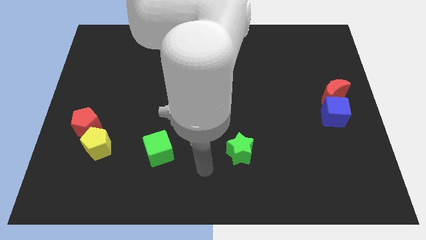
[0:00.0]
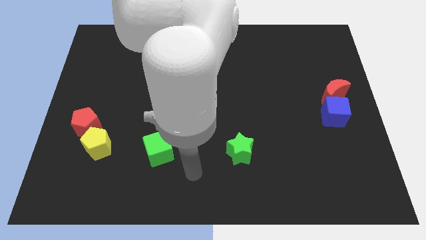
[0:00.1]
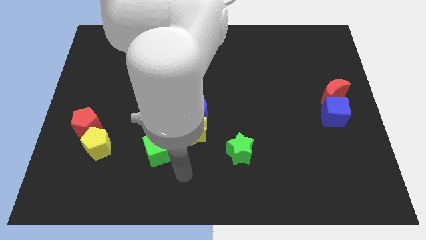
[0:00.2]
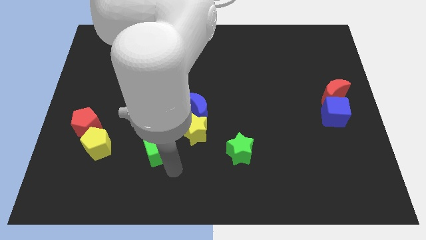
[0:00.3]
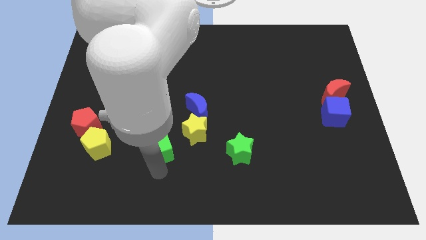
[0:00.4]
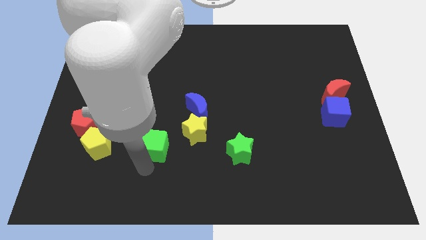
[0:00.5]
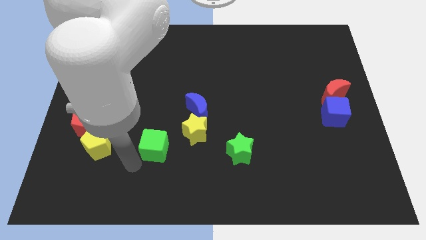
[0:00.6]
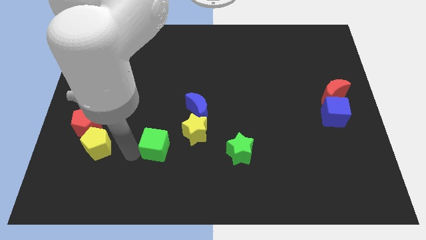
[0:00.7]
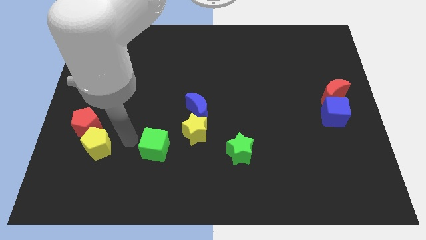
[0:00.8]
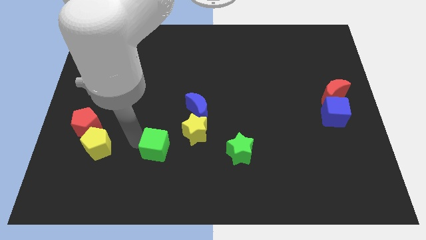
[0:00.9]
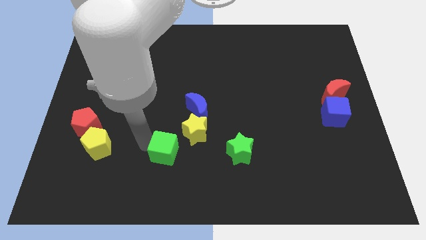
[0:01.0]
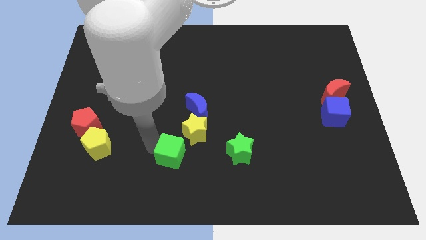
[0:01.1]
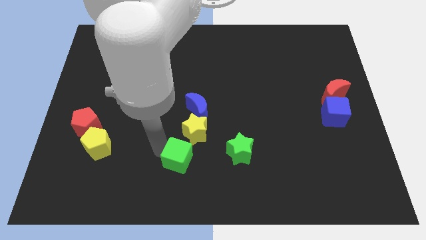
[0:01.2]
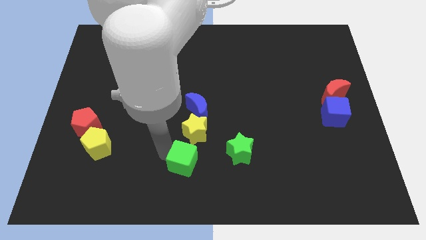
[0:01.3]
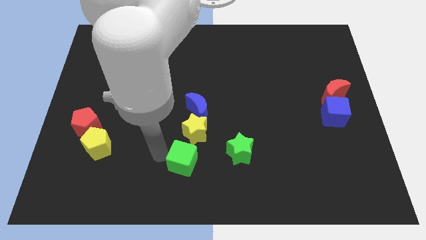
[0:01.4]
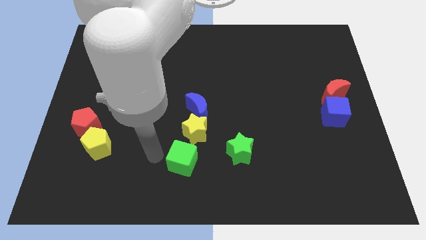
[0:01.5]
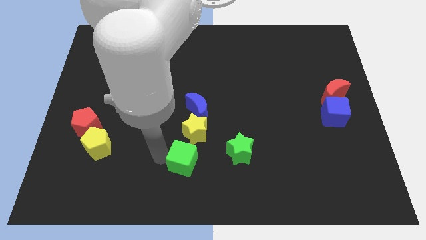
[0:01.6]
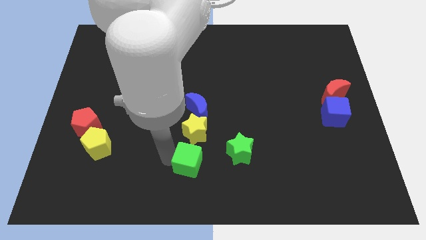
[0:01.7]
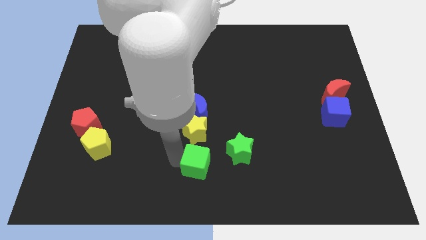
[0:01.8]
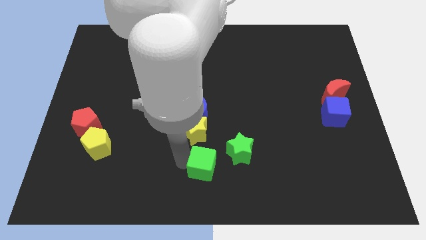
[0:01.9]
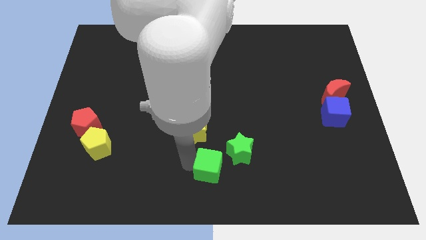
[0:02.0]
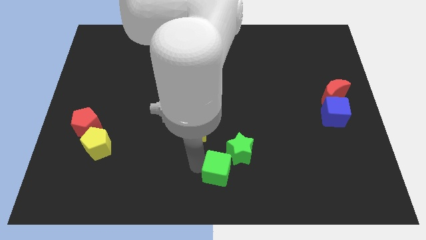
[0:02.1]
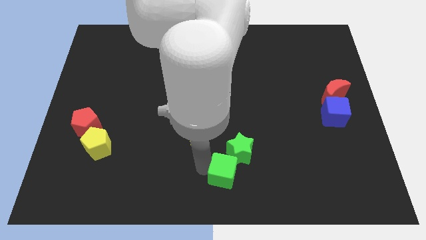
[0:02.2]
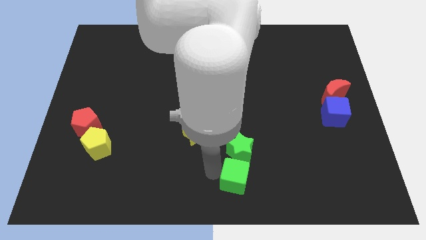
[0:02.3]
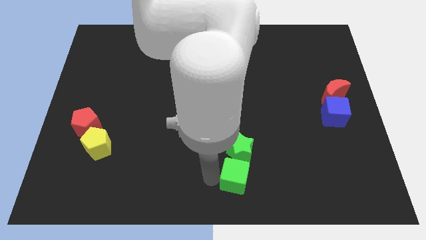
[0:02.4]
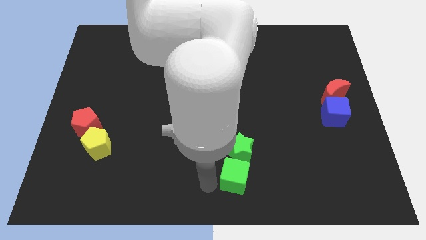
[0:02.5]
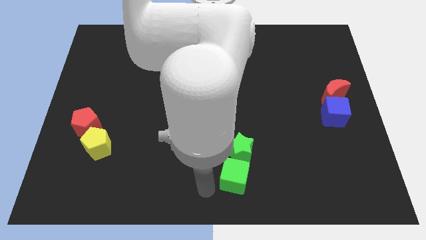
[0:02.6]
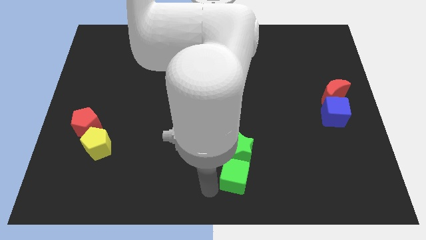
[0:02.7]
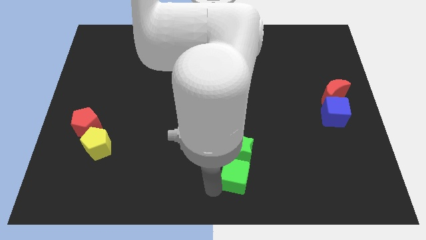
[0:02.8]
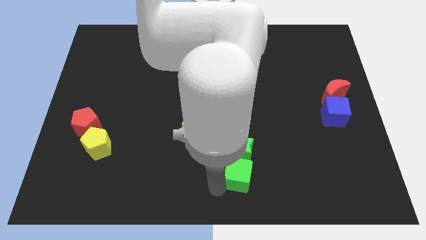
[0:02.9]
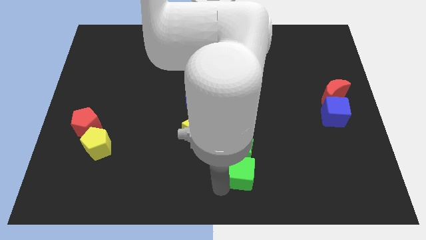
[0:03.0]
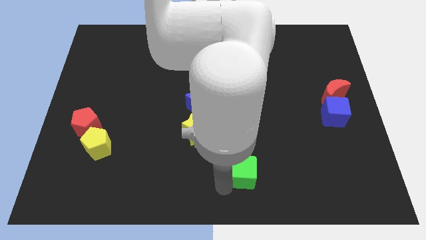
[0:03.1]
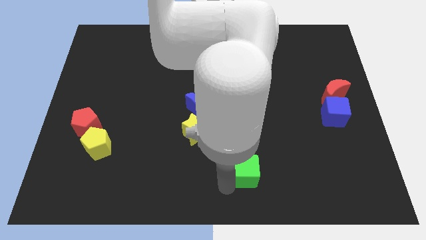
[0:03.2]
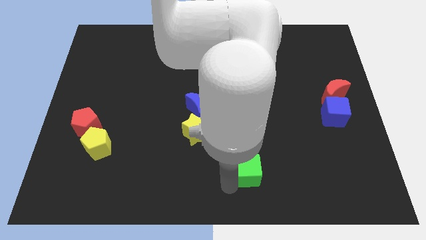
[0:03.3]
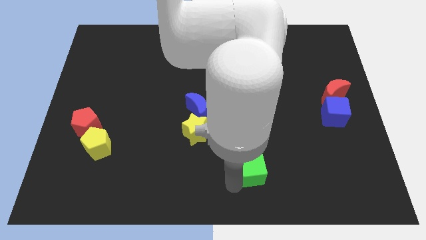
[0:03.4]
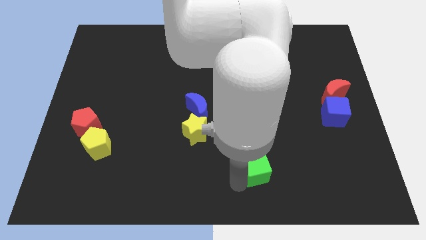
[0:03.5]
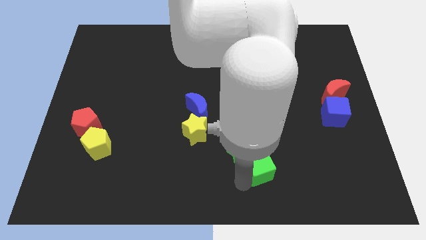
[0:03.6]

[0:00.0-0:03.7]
push the green cube to the right

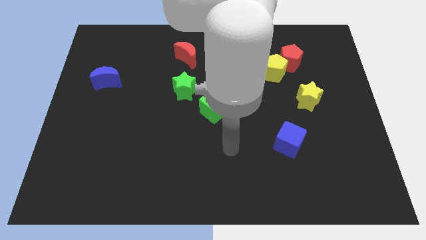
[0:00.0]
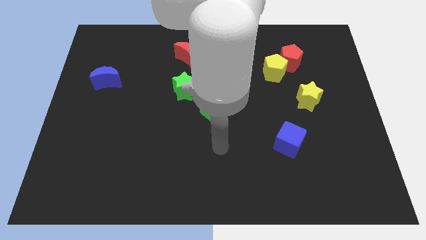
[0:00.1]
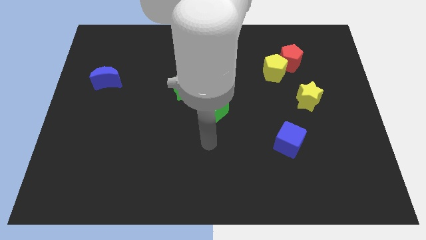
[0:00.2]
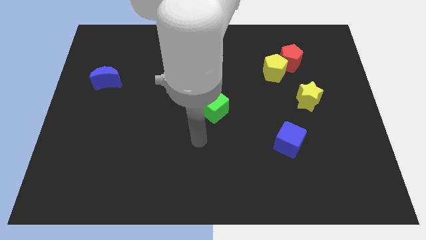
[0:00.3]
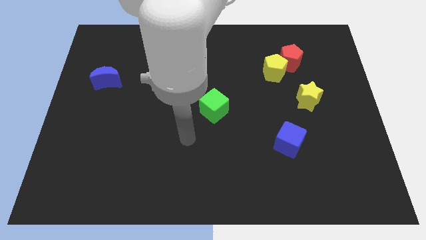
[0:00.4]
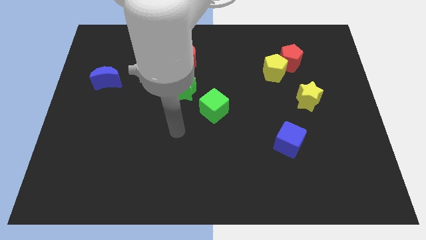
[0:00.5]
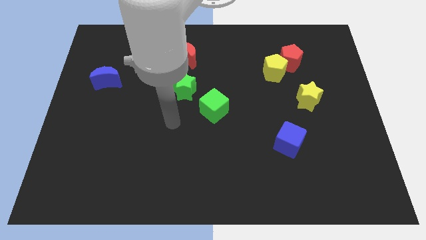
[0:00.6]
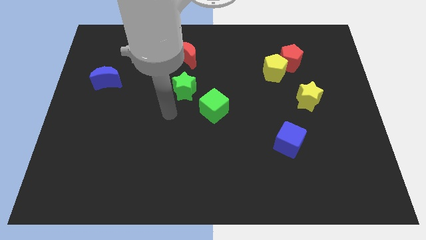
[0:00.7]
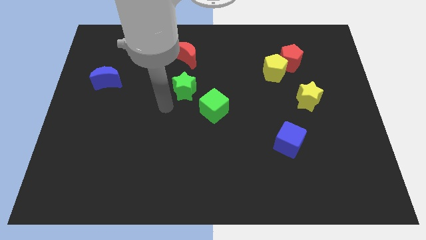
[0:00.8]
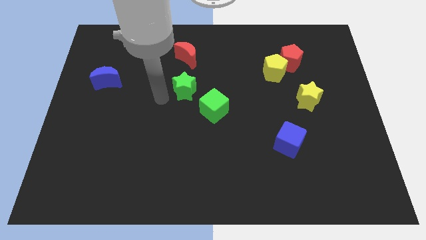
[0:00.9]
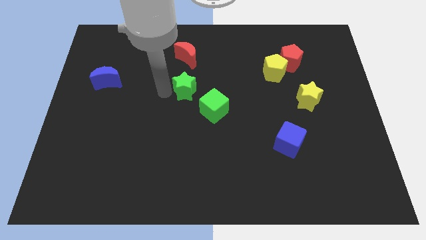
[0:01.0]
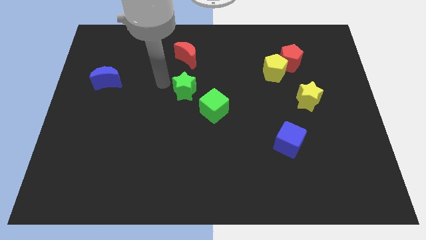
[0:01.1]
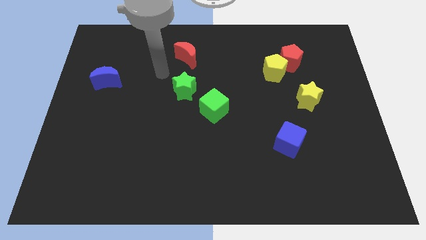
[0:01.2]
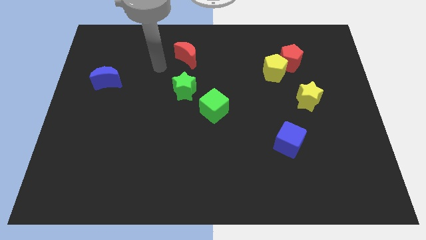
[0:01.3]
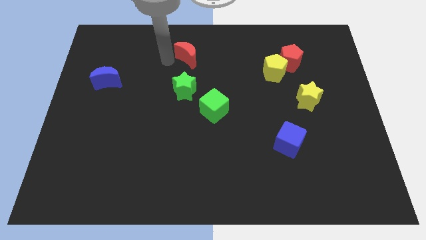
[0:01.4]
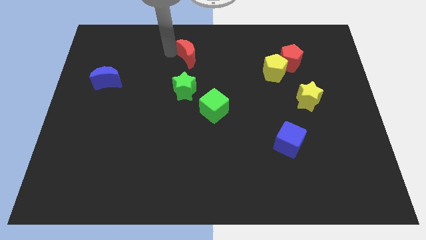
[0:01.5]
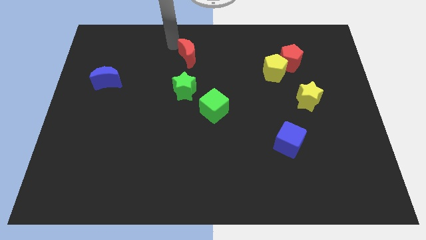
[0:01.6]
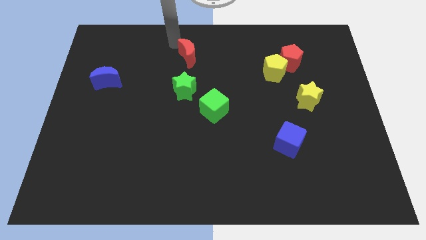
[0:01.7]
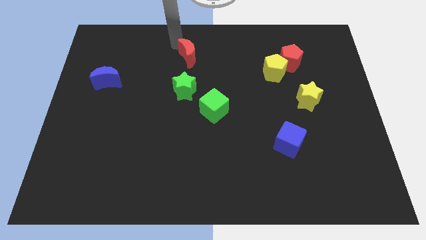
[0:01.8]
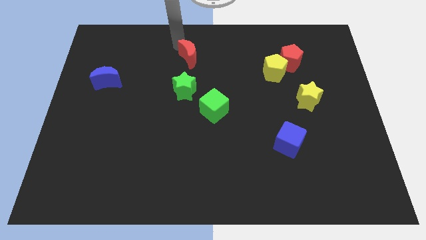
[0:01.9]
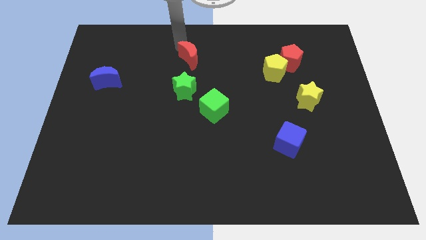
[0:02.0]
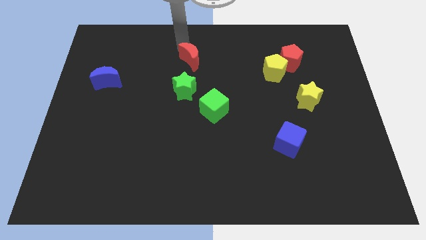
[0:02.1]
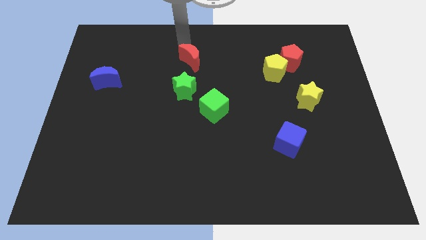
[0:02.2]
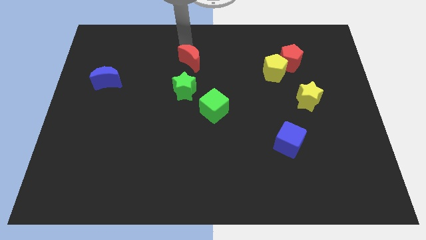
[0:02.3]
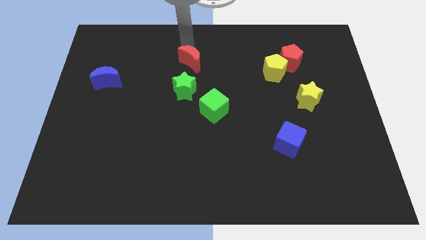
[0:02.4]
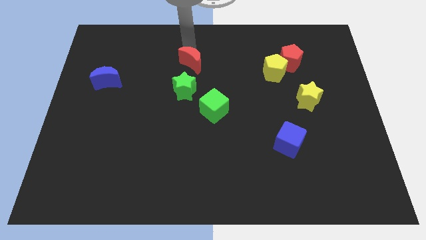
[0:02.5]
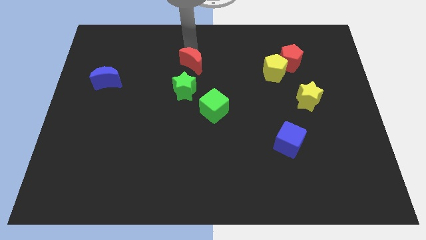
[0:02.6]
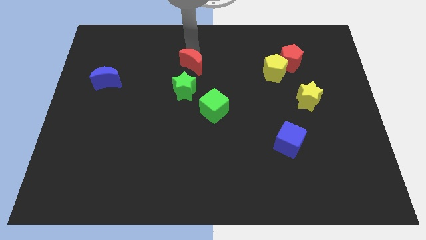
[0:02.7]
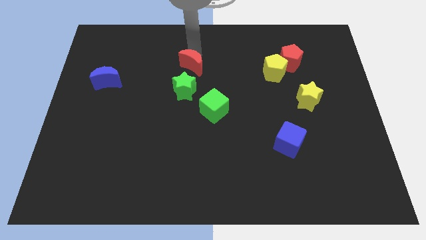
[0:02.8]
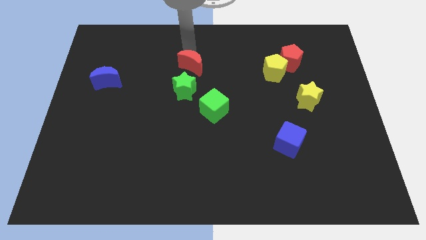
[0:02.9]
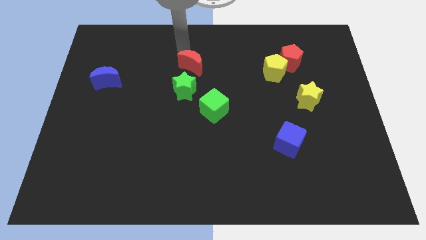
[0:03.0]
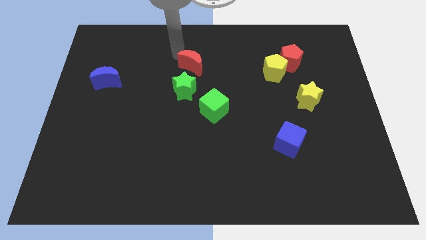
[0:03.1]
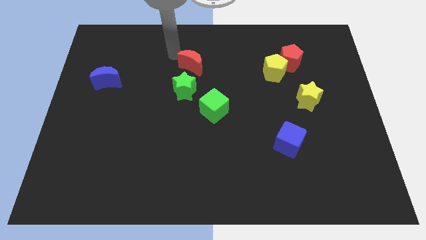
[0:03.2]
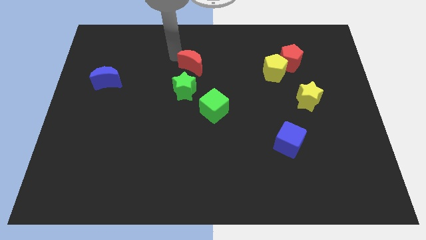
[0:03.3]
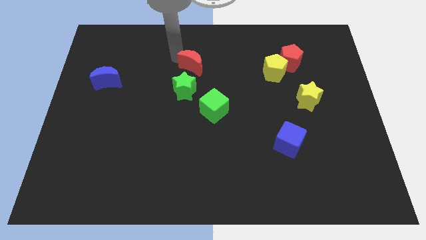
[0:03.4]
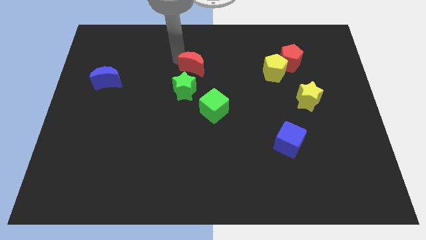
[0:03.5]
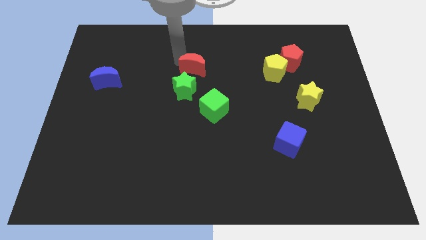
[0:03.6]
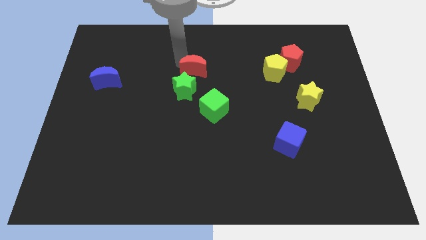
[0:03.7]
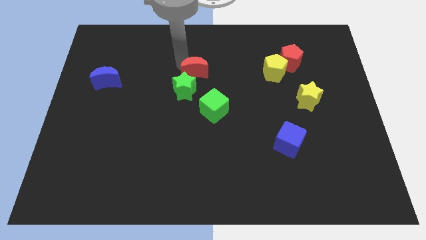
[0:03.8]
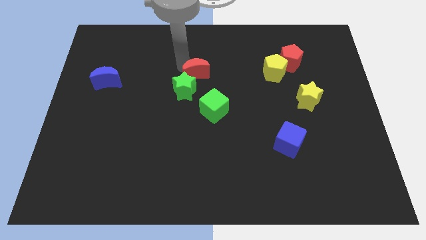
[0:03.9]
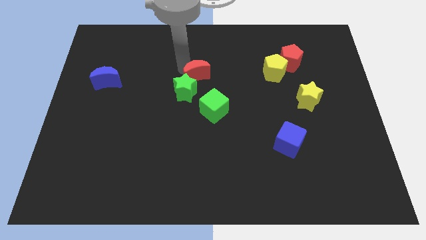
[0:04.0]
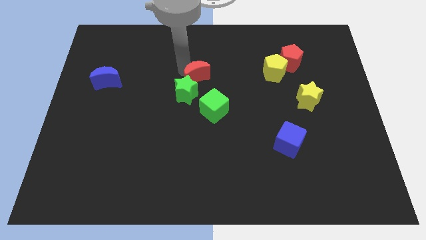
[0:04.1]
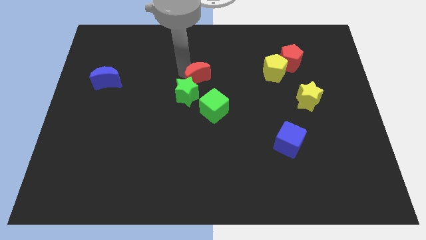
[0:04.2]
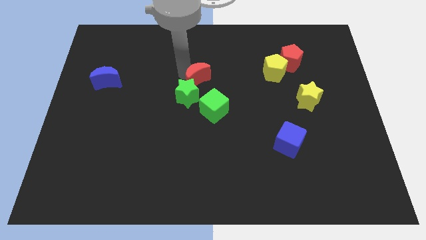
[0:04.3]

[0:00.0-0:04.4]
push the red moon diagonally downwards and to the right a little
